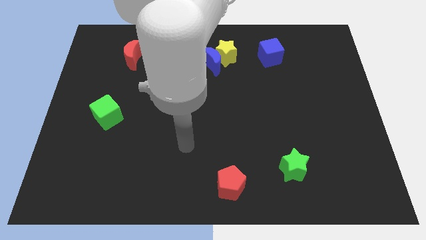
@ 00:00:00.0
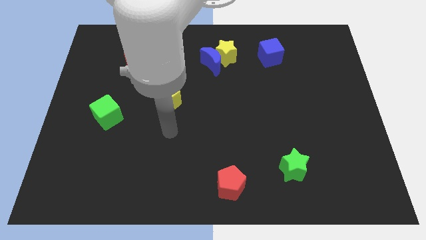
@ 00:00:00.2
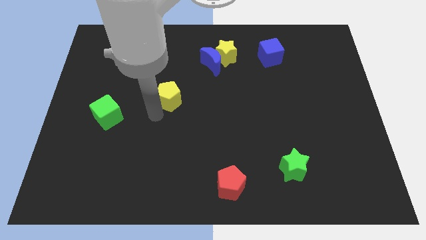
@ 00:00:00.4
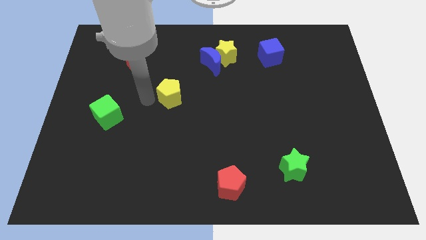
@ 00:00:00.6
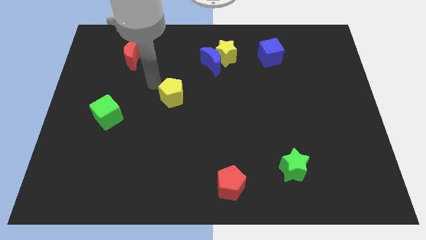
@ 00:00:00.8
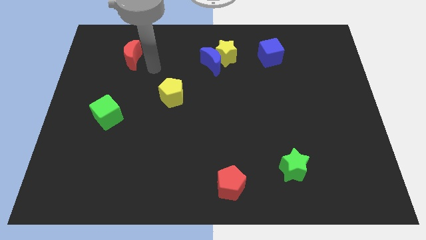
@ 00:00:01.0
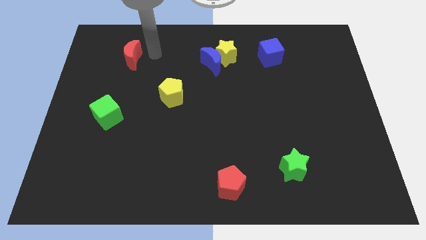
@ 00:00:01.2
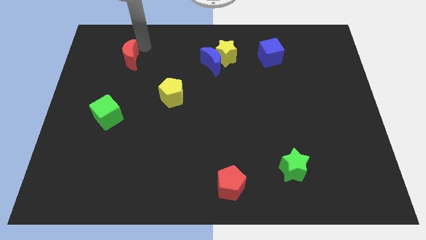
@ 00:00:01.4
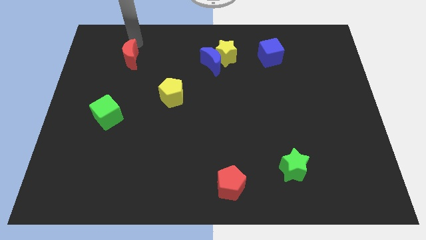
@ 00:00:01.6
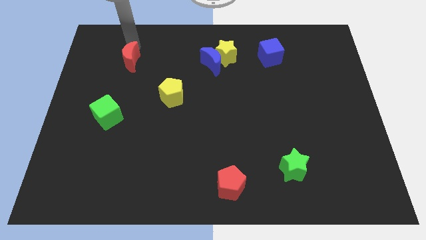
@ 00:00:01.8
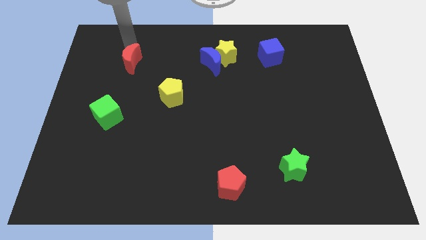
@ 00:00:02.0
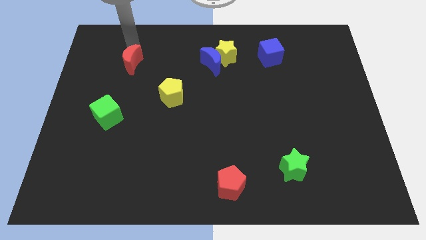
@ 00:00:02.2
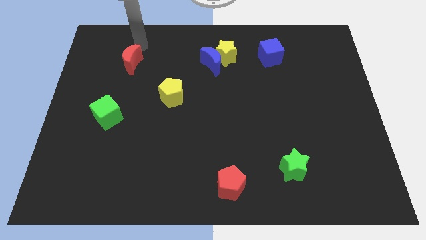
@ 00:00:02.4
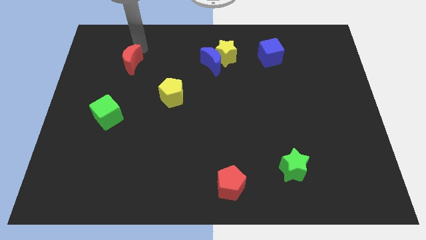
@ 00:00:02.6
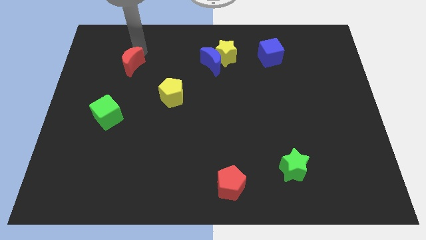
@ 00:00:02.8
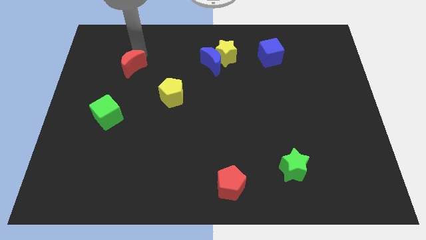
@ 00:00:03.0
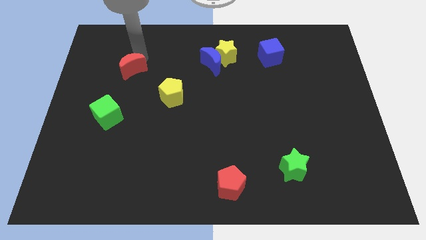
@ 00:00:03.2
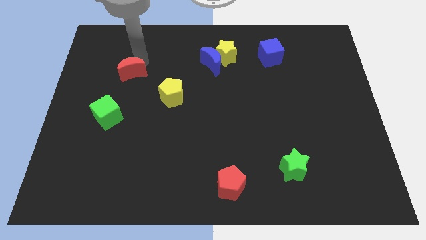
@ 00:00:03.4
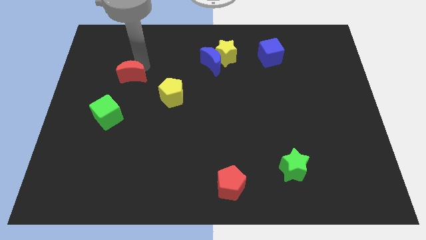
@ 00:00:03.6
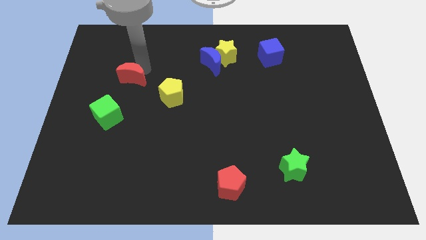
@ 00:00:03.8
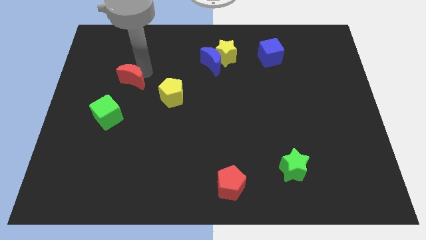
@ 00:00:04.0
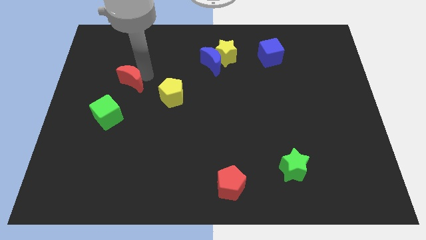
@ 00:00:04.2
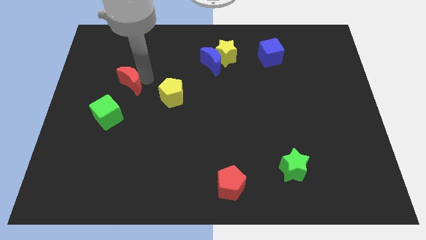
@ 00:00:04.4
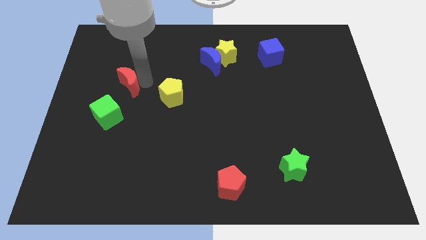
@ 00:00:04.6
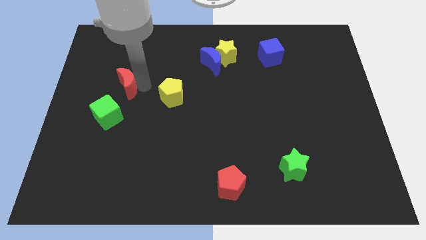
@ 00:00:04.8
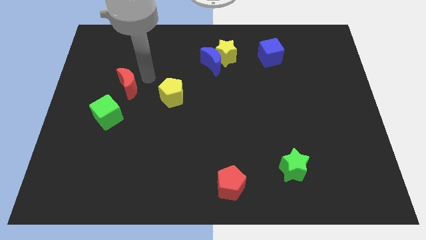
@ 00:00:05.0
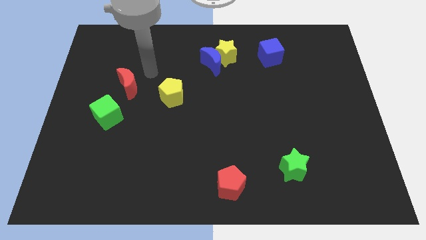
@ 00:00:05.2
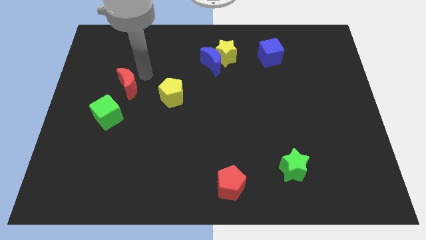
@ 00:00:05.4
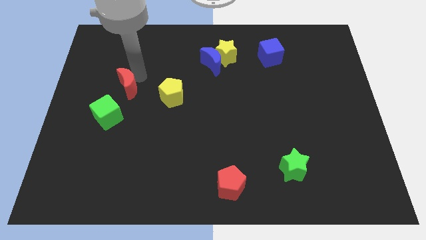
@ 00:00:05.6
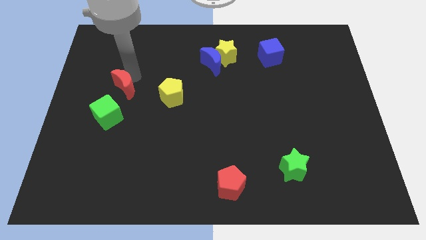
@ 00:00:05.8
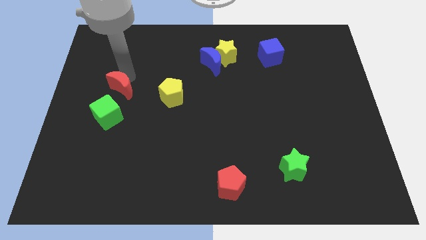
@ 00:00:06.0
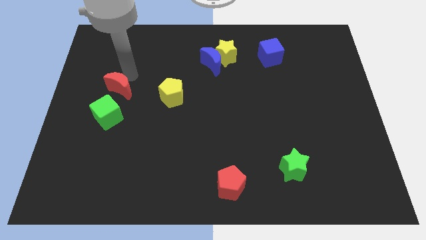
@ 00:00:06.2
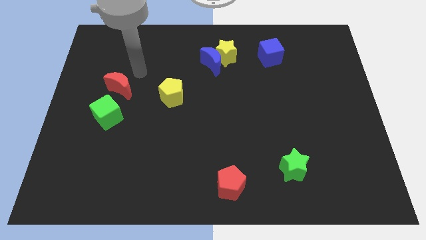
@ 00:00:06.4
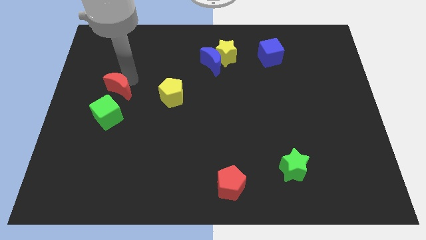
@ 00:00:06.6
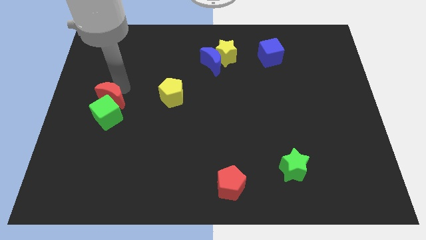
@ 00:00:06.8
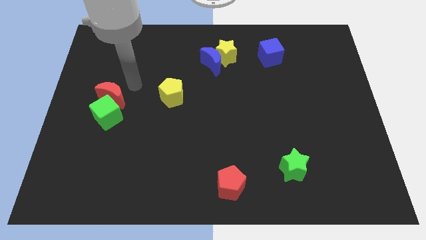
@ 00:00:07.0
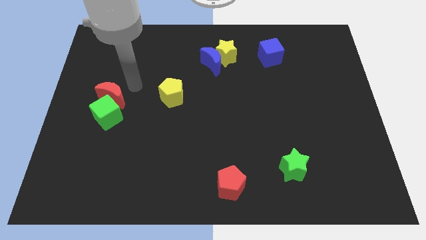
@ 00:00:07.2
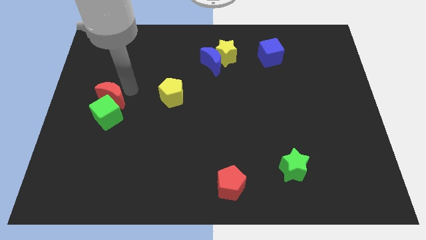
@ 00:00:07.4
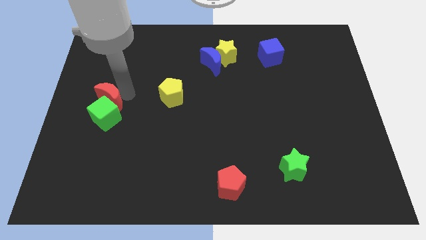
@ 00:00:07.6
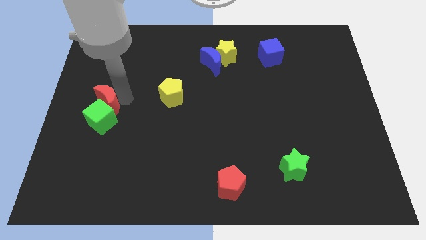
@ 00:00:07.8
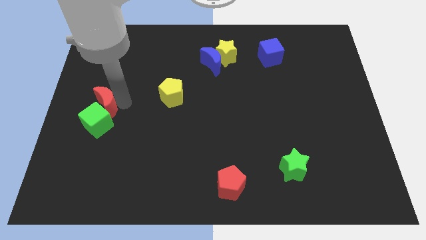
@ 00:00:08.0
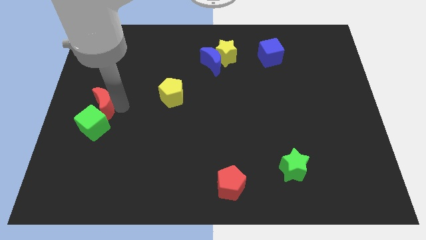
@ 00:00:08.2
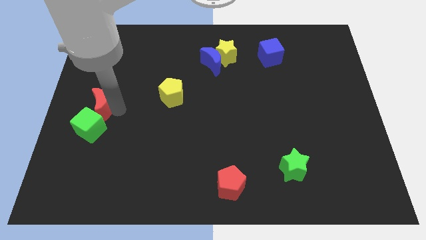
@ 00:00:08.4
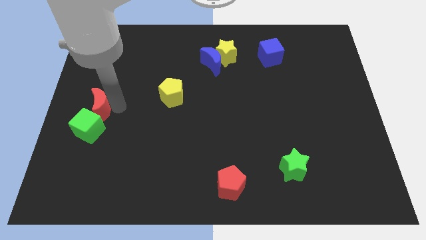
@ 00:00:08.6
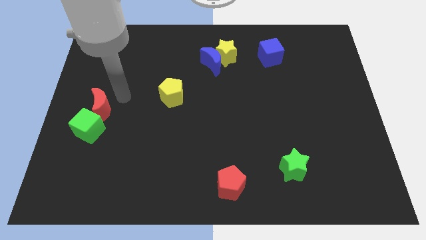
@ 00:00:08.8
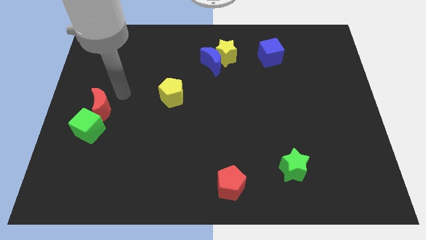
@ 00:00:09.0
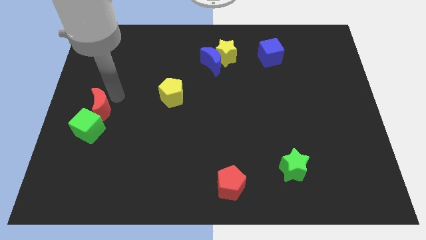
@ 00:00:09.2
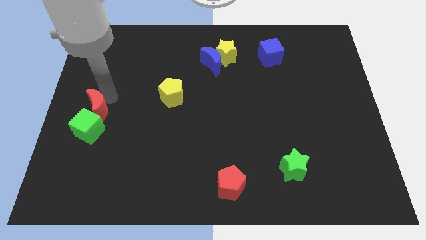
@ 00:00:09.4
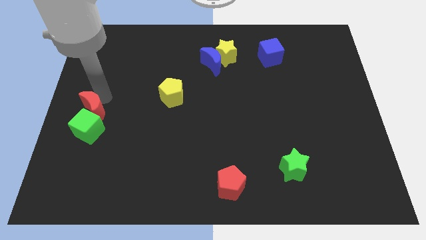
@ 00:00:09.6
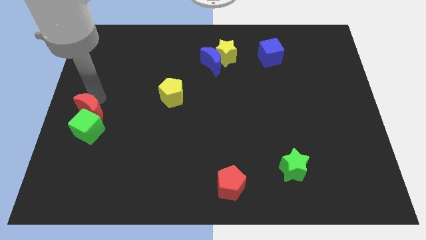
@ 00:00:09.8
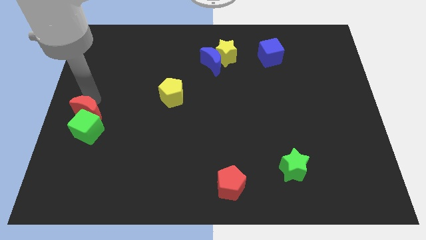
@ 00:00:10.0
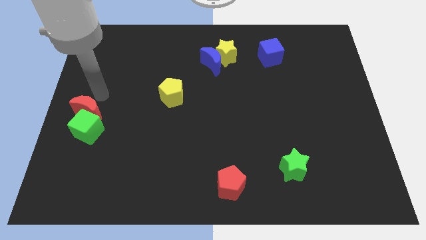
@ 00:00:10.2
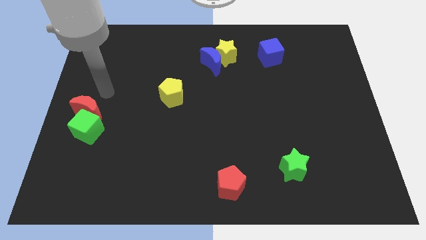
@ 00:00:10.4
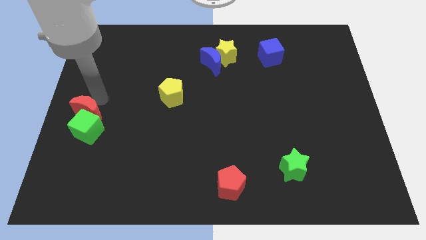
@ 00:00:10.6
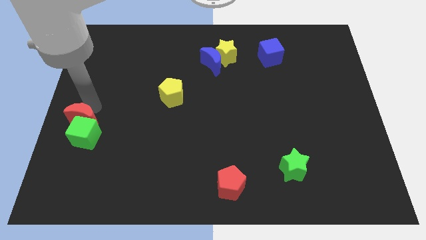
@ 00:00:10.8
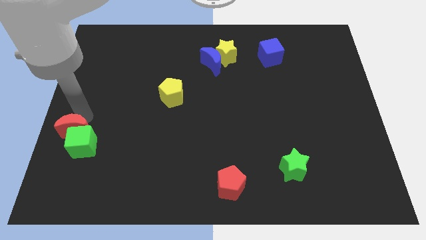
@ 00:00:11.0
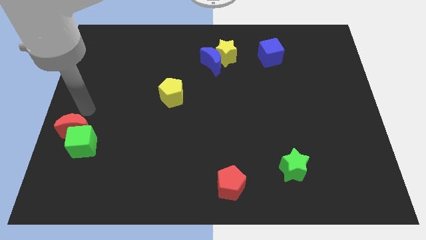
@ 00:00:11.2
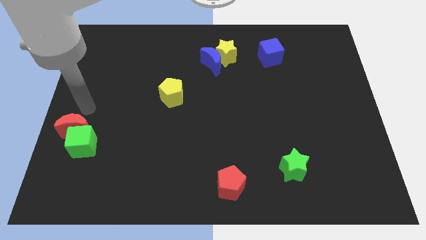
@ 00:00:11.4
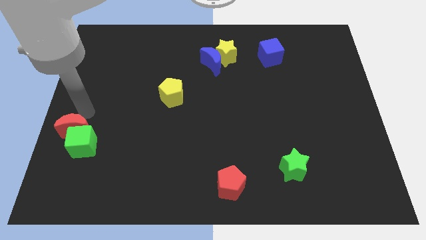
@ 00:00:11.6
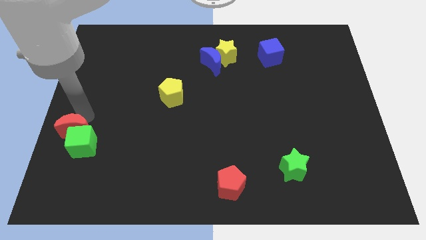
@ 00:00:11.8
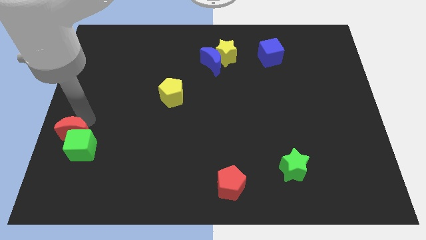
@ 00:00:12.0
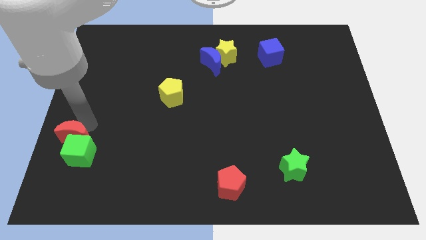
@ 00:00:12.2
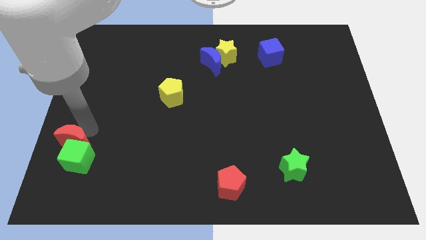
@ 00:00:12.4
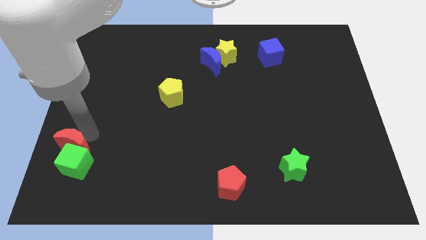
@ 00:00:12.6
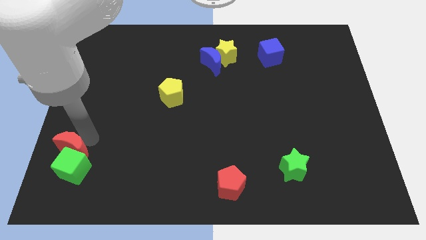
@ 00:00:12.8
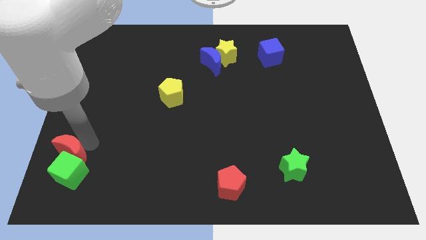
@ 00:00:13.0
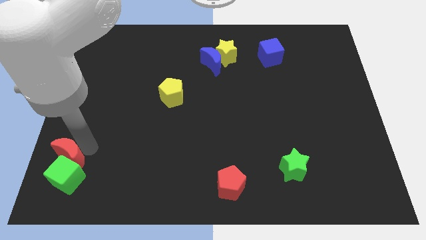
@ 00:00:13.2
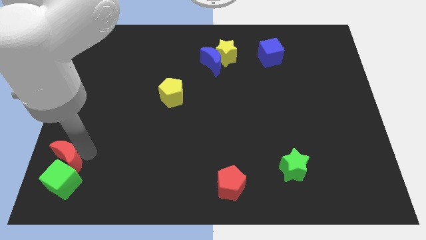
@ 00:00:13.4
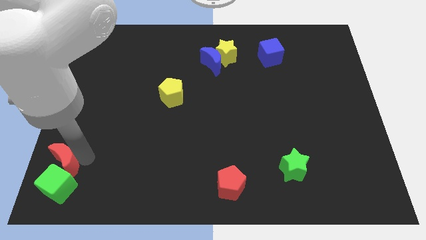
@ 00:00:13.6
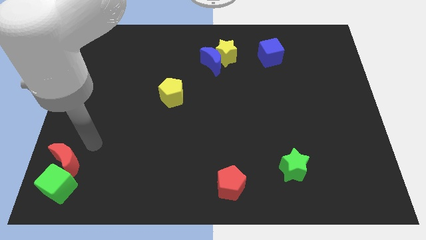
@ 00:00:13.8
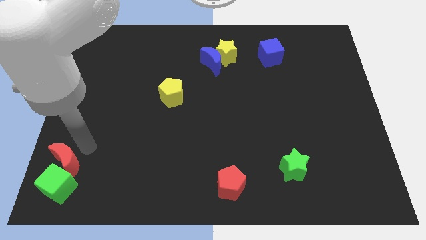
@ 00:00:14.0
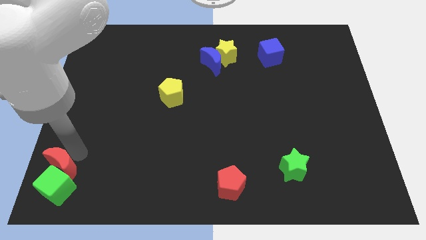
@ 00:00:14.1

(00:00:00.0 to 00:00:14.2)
push the red moon to the bottom left of the board
